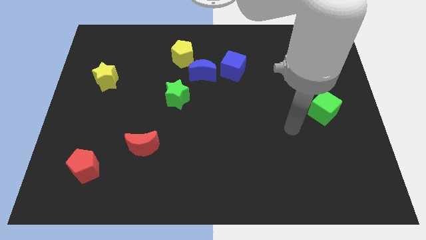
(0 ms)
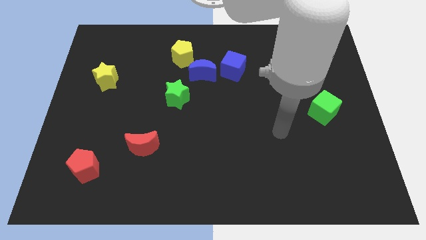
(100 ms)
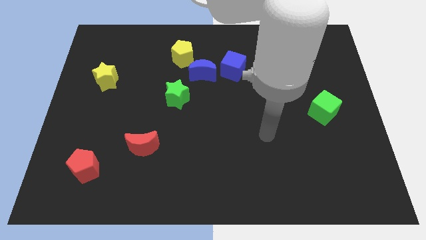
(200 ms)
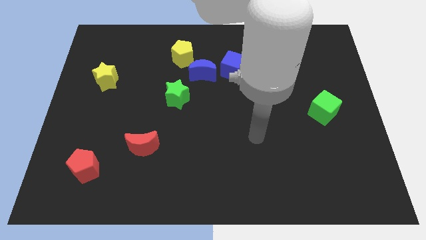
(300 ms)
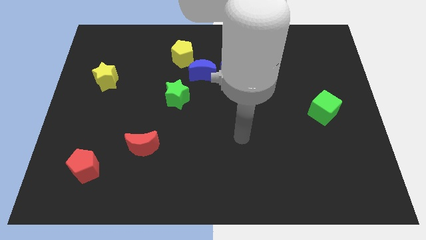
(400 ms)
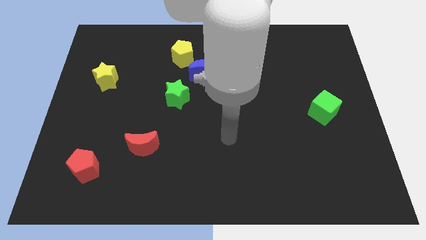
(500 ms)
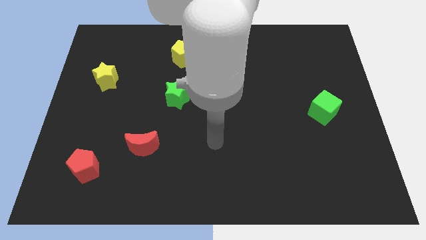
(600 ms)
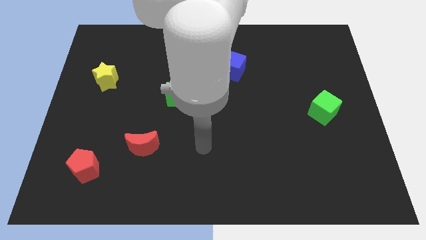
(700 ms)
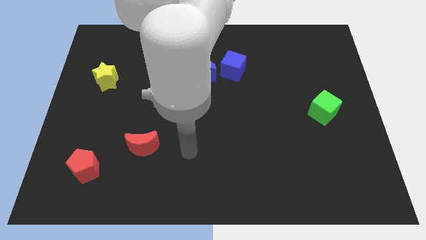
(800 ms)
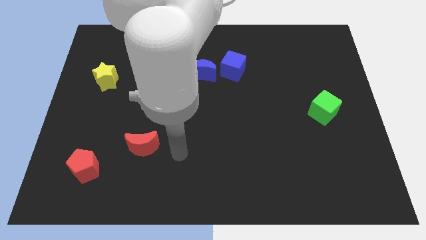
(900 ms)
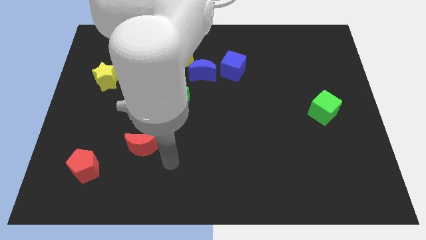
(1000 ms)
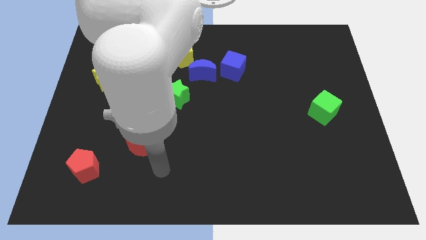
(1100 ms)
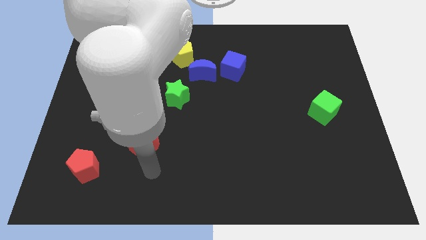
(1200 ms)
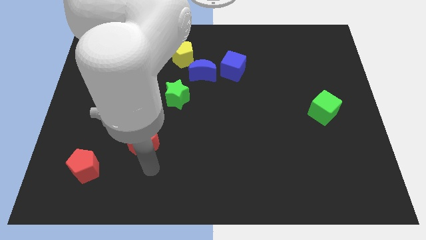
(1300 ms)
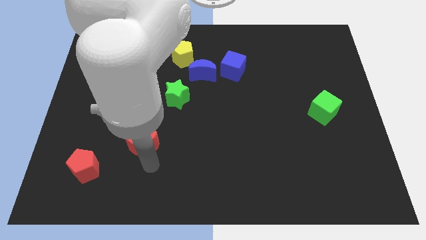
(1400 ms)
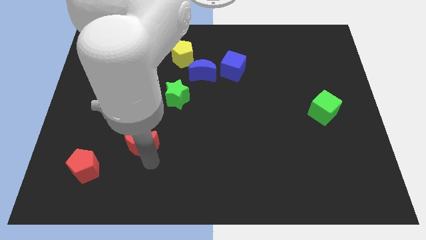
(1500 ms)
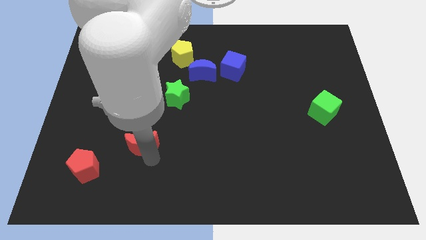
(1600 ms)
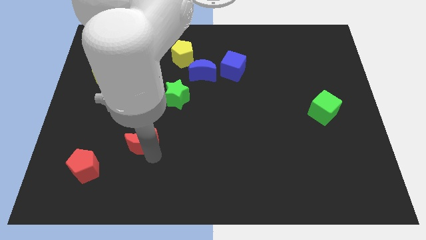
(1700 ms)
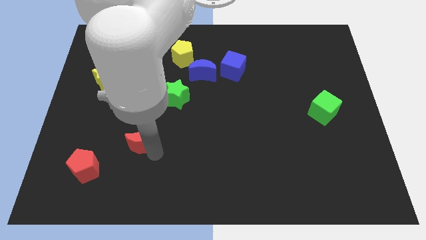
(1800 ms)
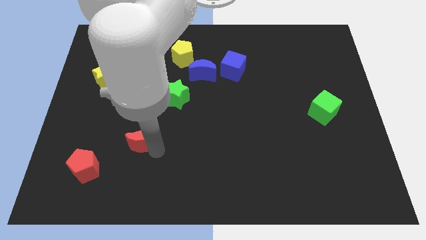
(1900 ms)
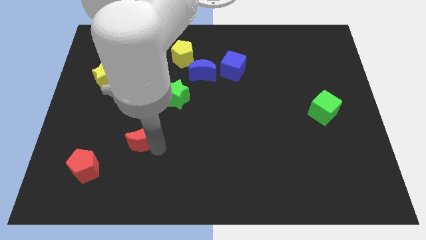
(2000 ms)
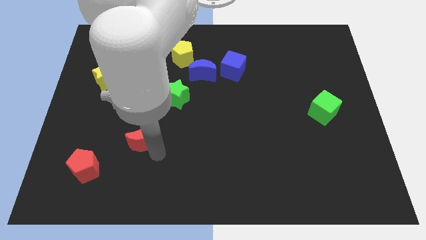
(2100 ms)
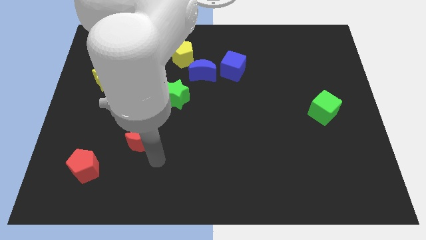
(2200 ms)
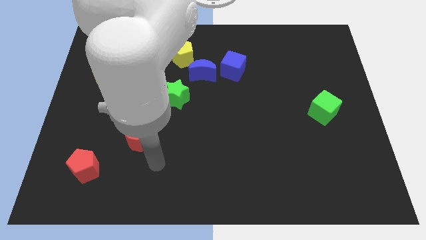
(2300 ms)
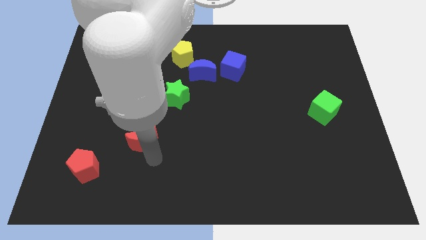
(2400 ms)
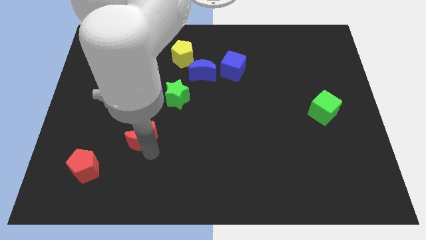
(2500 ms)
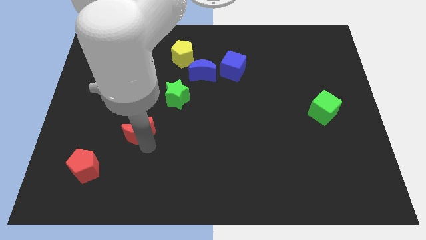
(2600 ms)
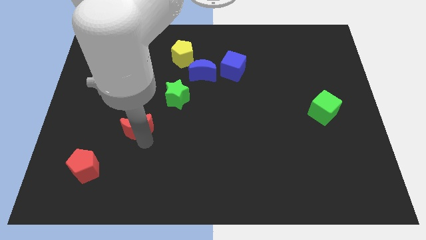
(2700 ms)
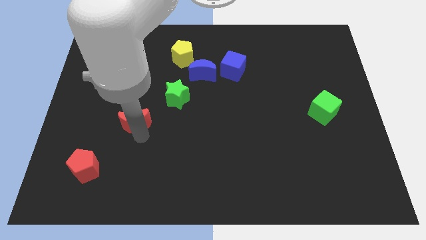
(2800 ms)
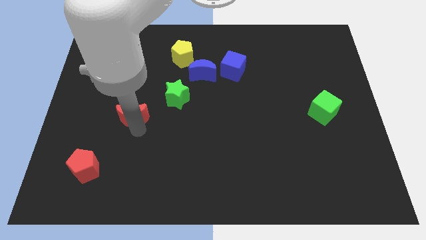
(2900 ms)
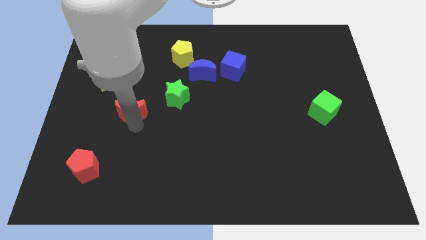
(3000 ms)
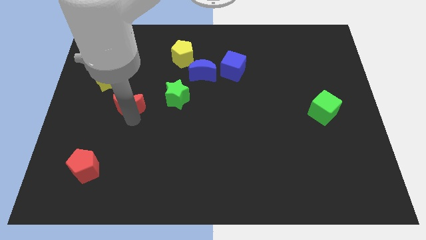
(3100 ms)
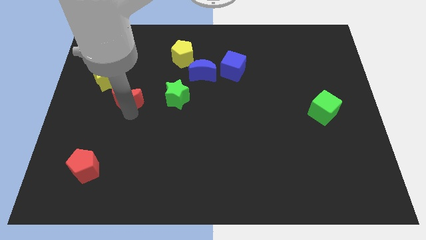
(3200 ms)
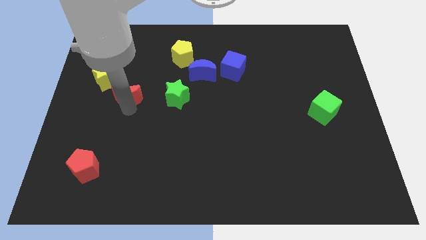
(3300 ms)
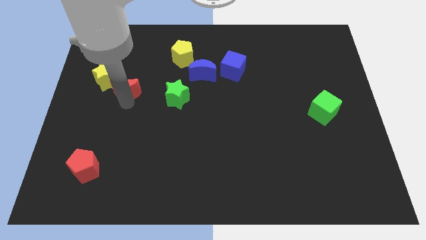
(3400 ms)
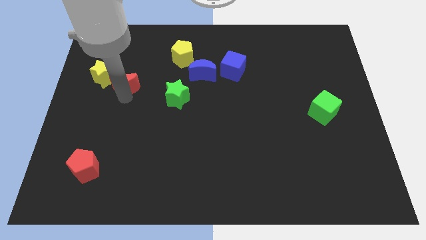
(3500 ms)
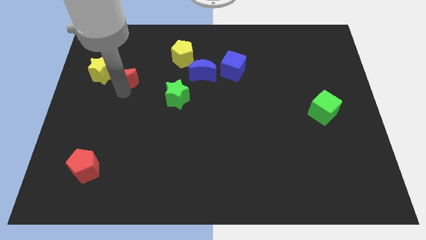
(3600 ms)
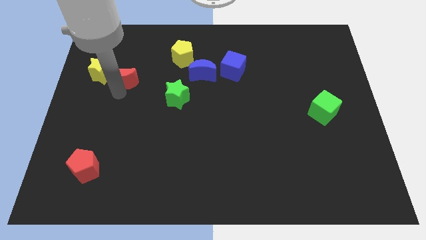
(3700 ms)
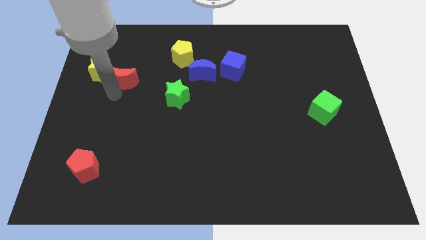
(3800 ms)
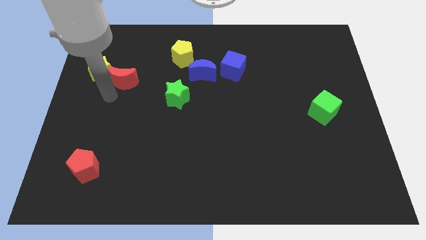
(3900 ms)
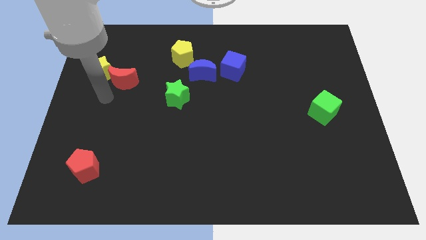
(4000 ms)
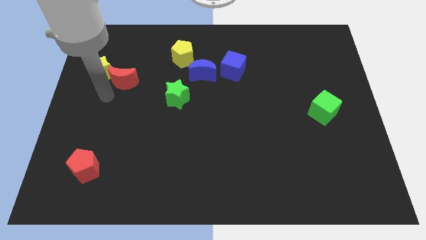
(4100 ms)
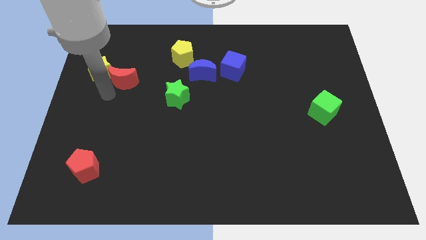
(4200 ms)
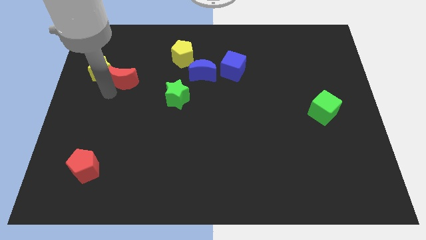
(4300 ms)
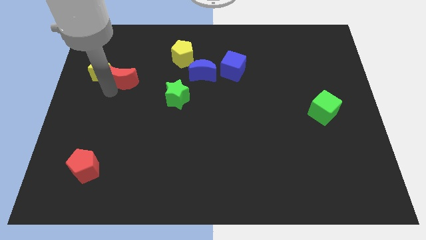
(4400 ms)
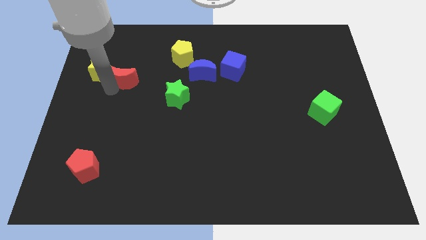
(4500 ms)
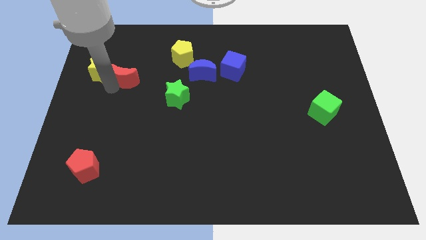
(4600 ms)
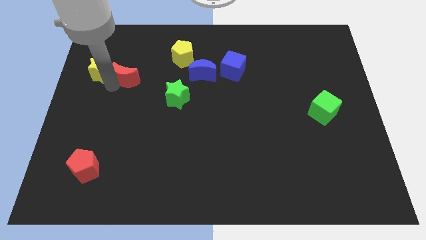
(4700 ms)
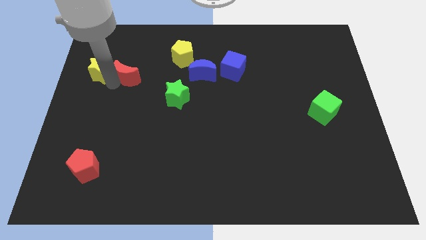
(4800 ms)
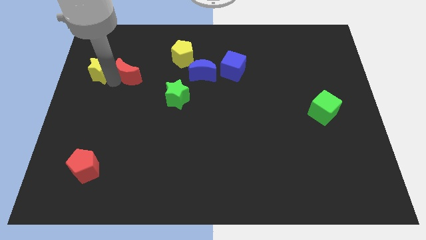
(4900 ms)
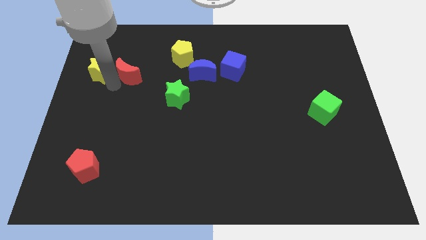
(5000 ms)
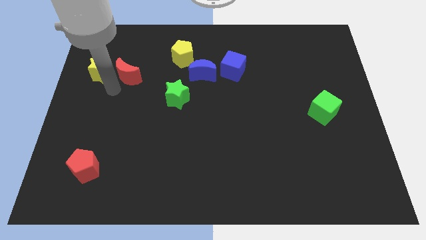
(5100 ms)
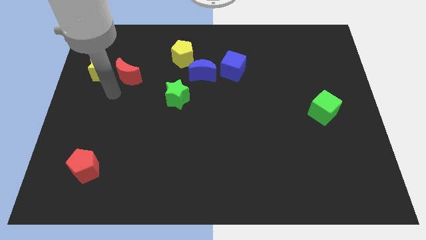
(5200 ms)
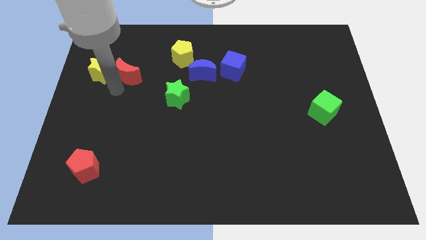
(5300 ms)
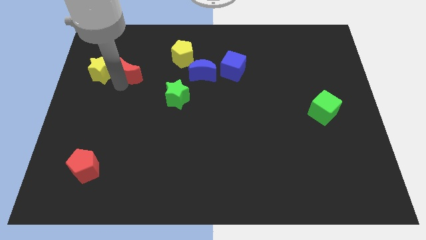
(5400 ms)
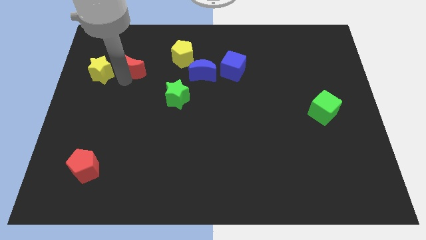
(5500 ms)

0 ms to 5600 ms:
push the red moon just left of the yellow pentagon

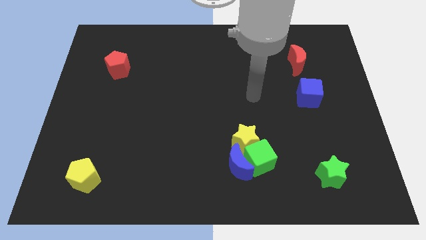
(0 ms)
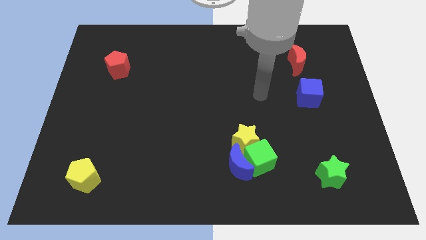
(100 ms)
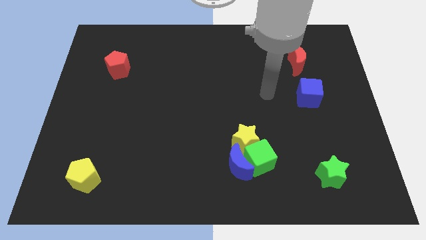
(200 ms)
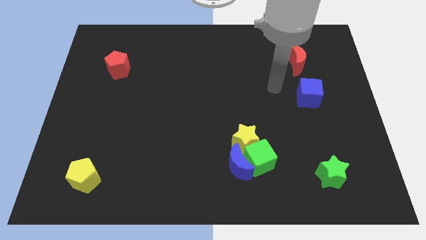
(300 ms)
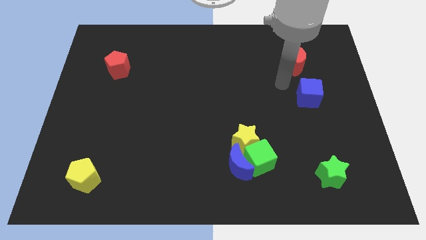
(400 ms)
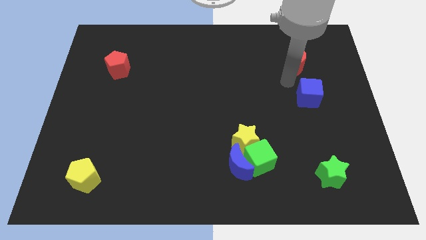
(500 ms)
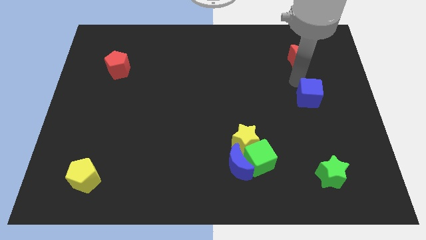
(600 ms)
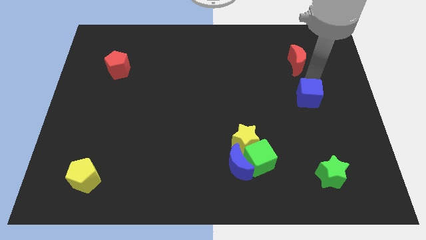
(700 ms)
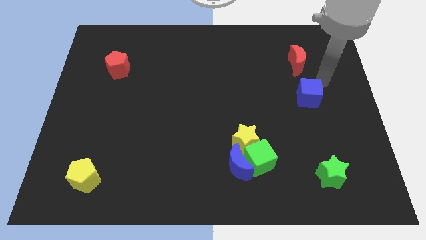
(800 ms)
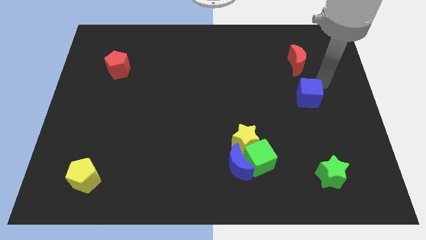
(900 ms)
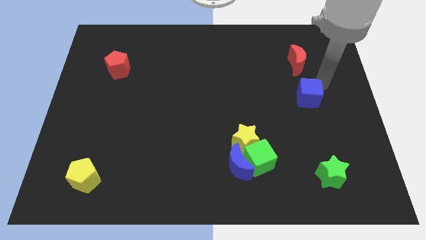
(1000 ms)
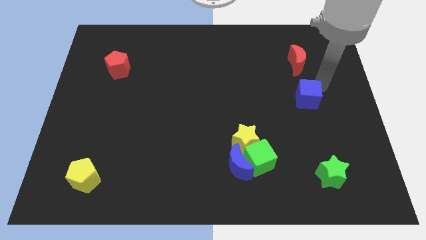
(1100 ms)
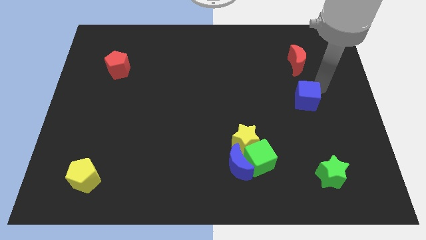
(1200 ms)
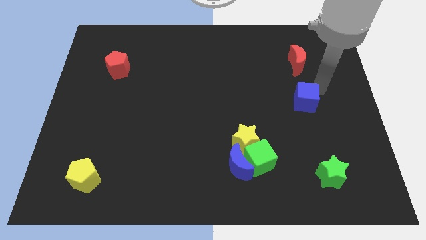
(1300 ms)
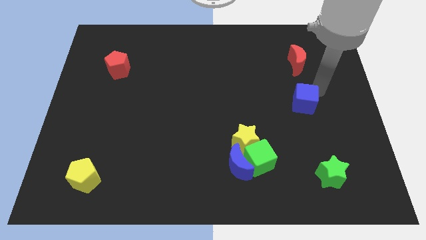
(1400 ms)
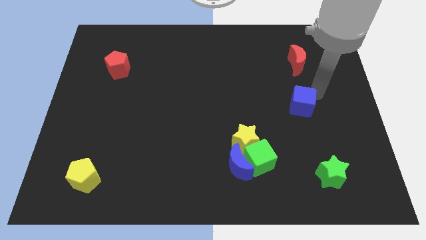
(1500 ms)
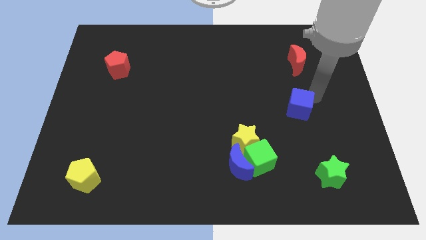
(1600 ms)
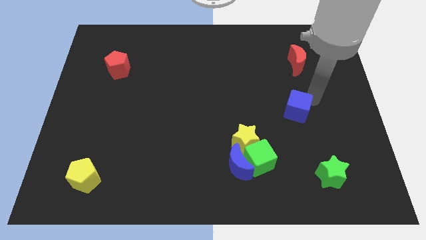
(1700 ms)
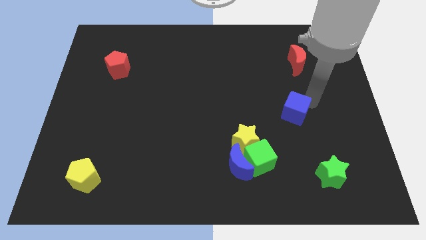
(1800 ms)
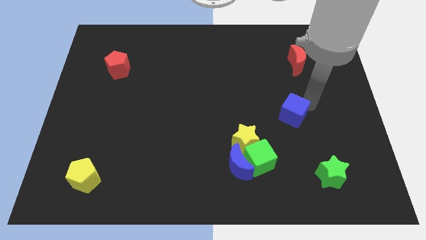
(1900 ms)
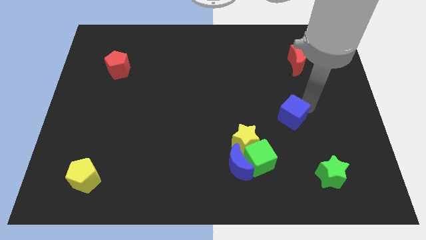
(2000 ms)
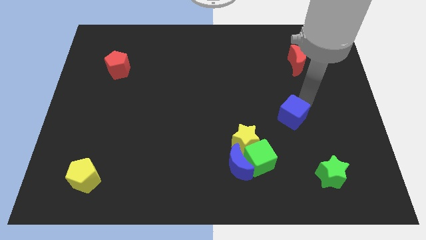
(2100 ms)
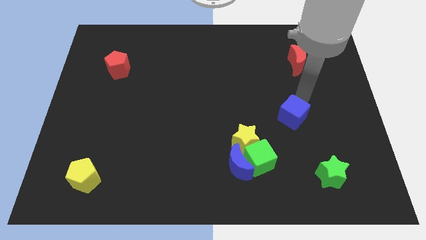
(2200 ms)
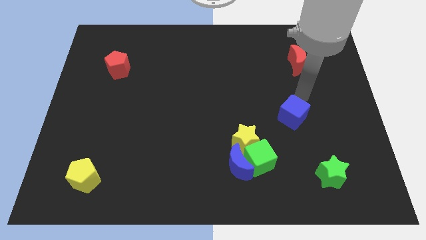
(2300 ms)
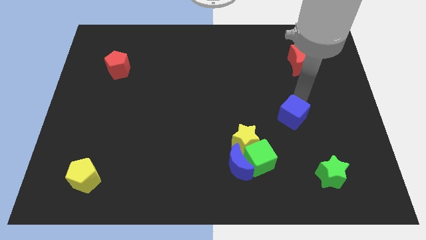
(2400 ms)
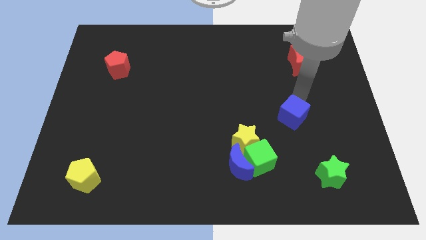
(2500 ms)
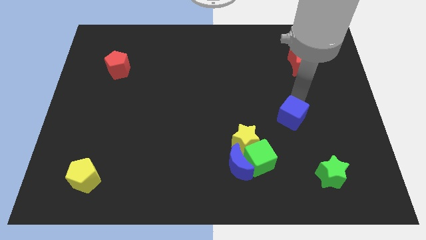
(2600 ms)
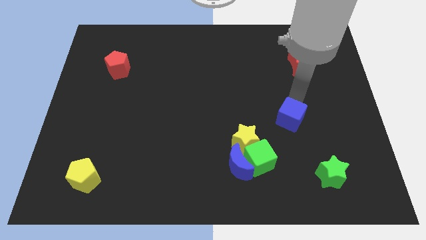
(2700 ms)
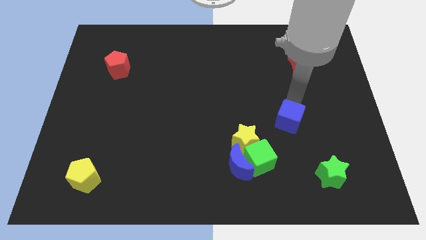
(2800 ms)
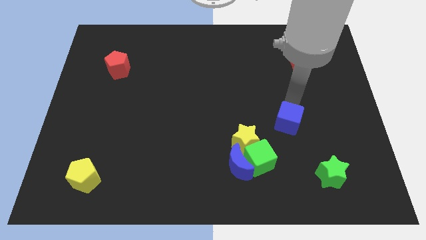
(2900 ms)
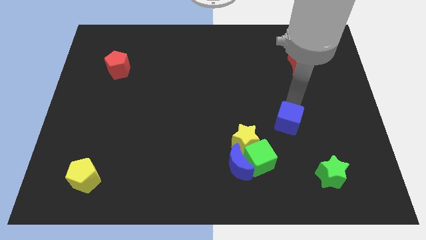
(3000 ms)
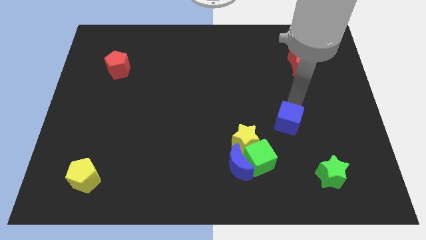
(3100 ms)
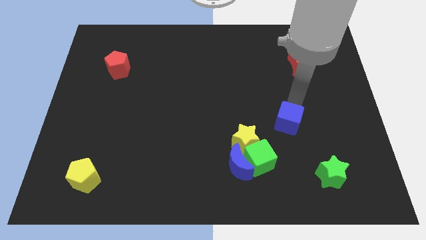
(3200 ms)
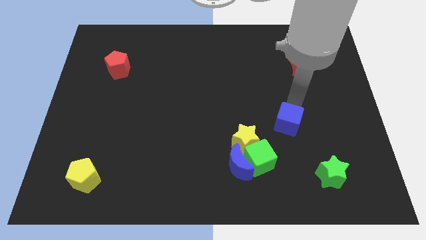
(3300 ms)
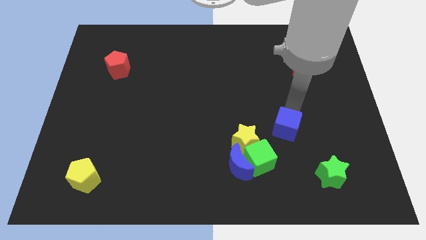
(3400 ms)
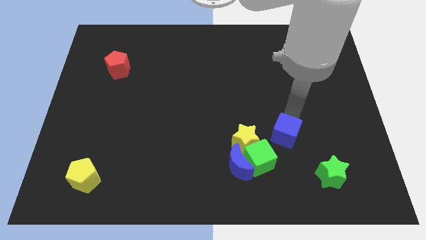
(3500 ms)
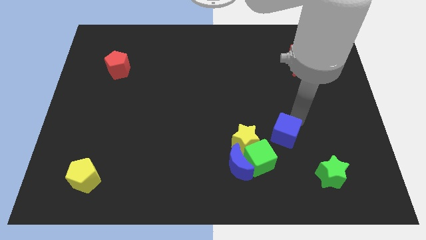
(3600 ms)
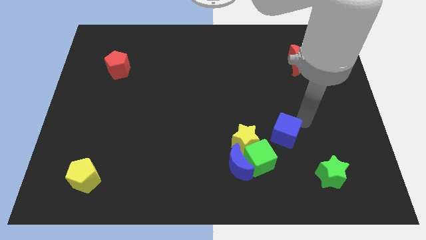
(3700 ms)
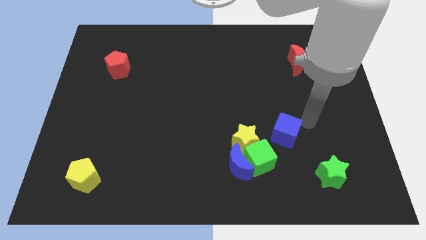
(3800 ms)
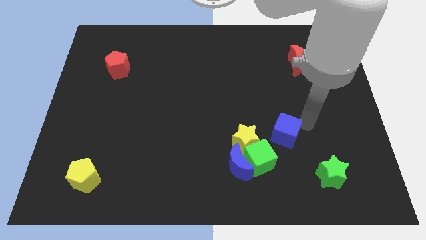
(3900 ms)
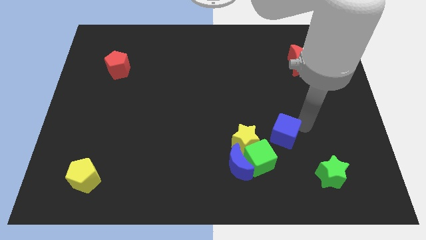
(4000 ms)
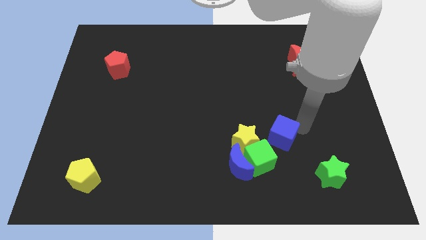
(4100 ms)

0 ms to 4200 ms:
slide the blue cube diagonally up and to the right of the blue moon
